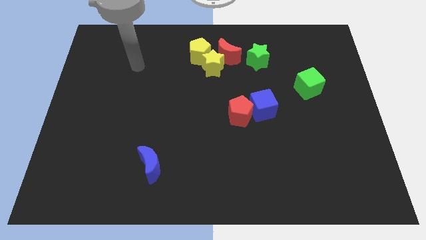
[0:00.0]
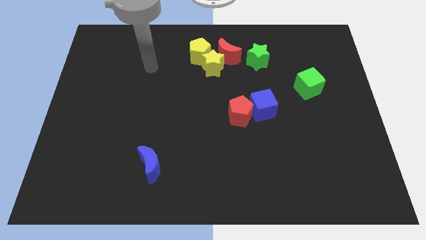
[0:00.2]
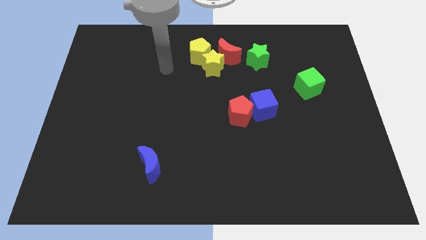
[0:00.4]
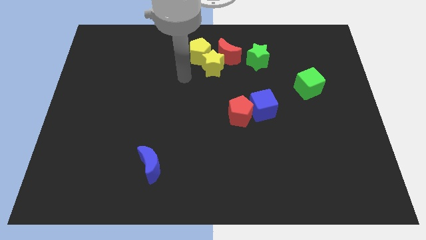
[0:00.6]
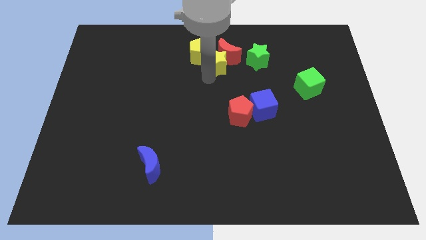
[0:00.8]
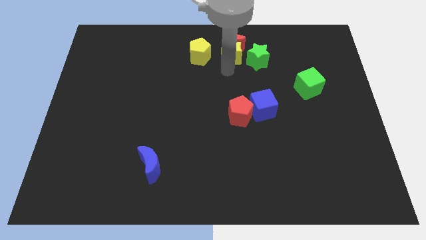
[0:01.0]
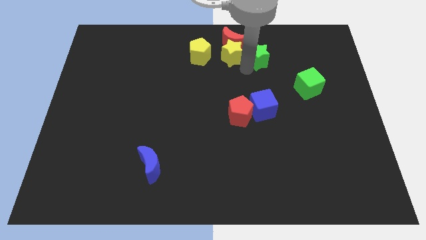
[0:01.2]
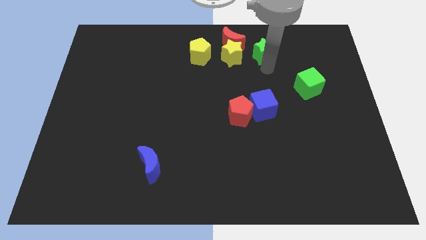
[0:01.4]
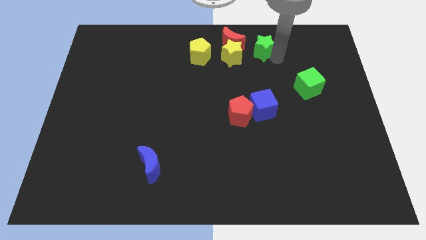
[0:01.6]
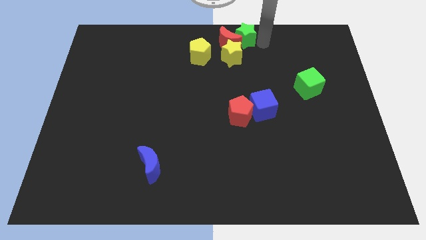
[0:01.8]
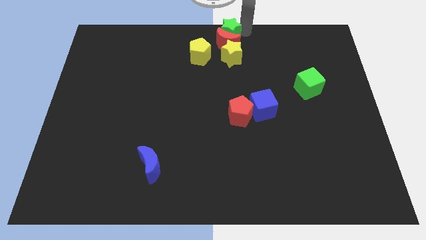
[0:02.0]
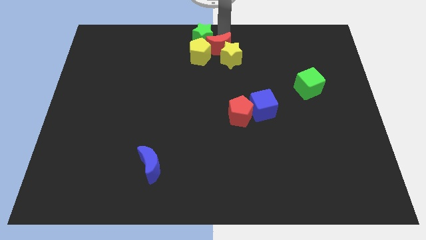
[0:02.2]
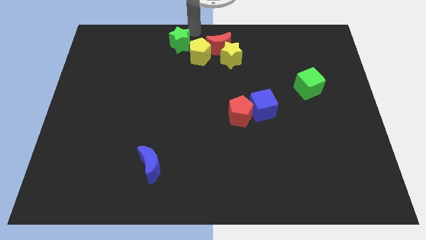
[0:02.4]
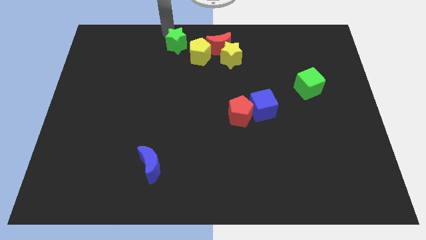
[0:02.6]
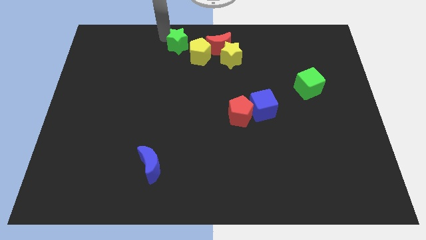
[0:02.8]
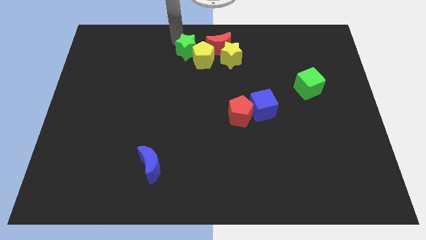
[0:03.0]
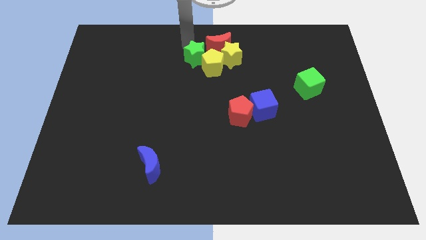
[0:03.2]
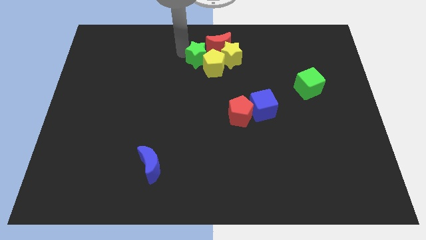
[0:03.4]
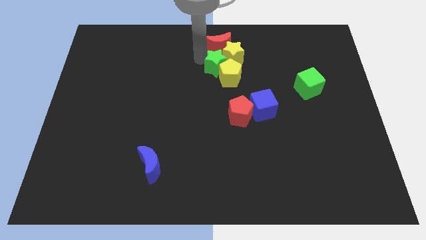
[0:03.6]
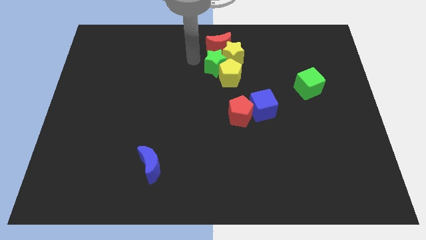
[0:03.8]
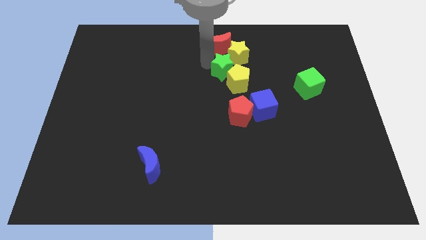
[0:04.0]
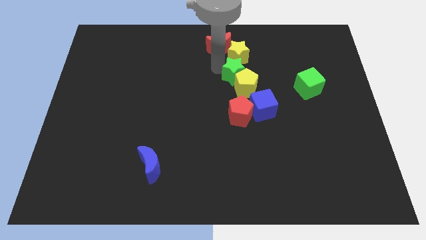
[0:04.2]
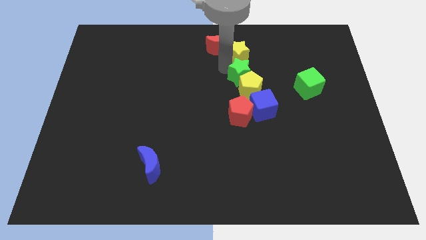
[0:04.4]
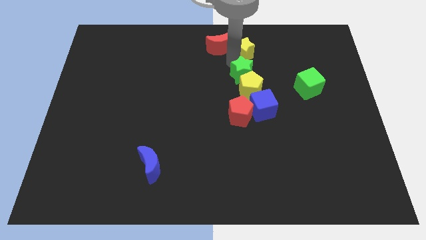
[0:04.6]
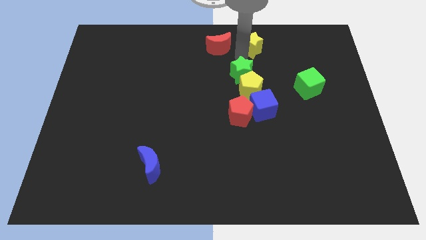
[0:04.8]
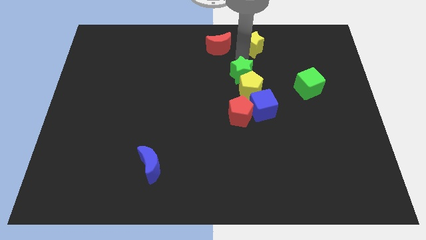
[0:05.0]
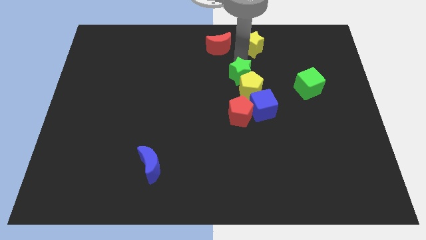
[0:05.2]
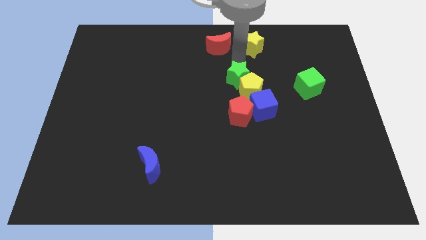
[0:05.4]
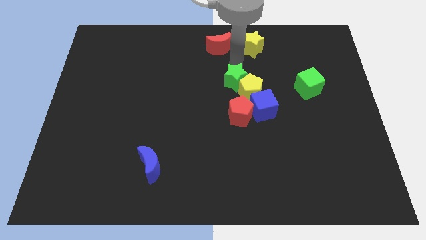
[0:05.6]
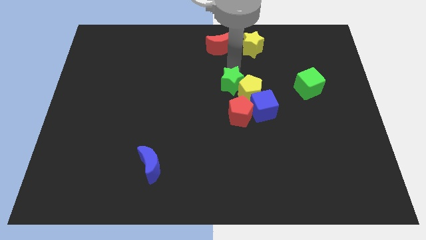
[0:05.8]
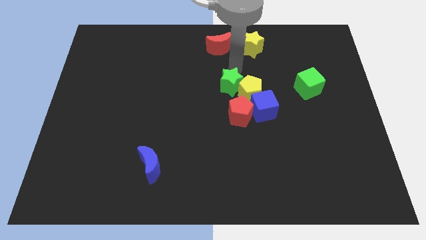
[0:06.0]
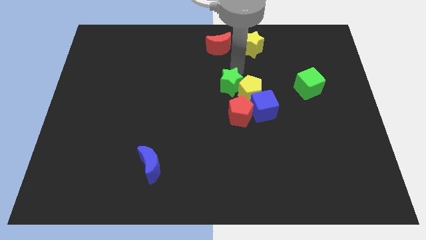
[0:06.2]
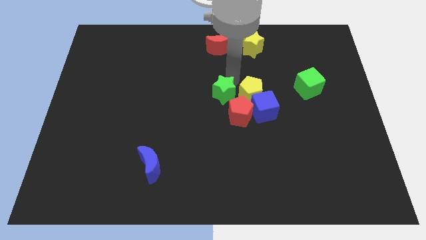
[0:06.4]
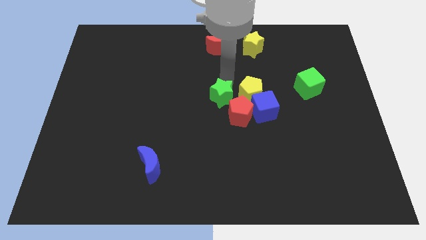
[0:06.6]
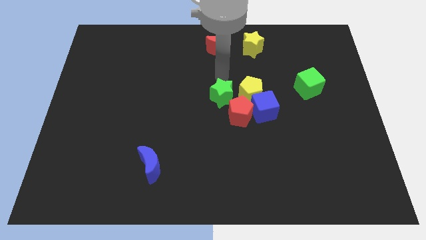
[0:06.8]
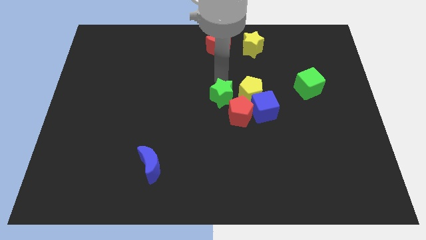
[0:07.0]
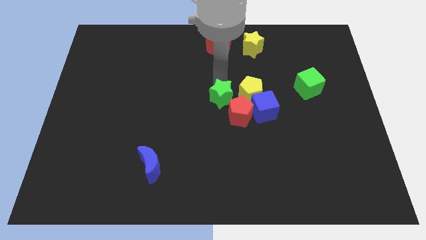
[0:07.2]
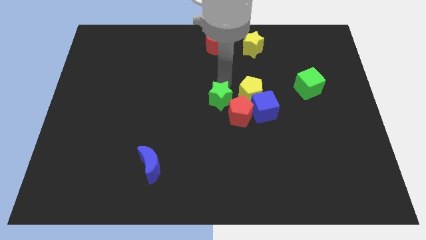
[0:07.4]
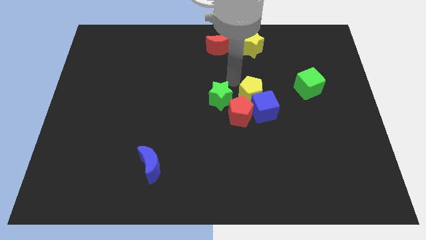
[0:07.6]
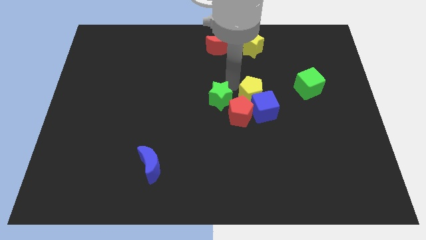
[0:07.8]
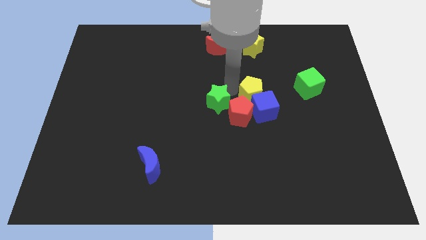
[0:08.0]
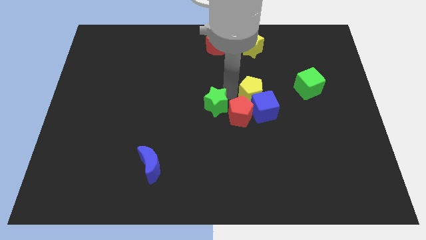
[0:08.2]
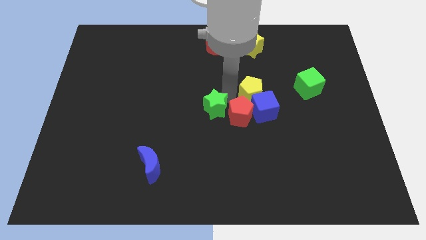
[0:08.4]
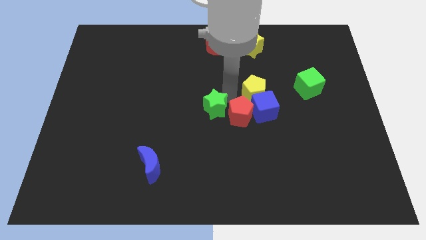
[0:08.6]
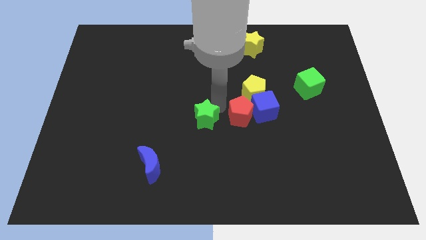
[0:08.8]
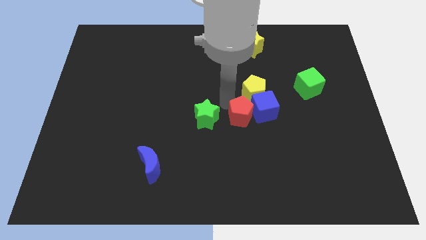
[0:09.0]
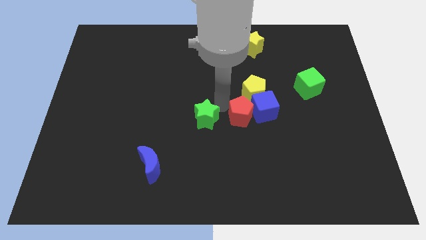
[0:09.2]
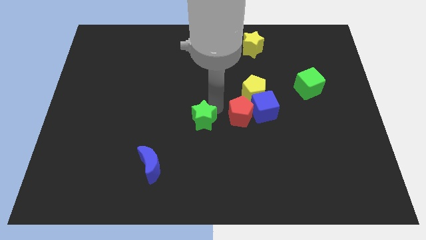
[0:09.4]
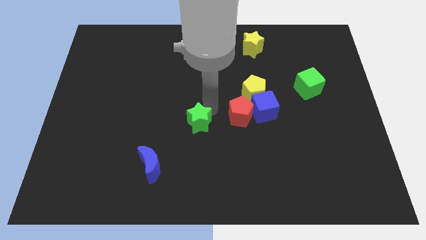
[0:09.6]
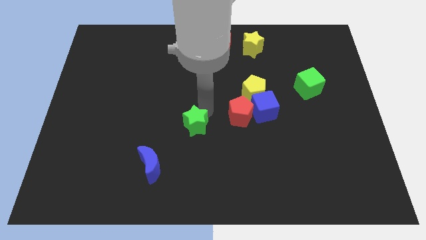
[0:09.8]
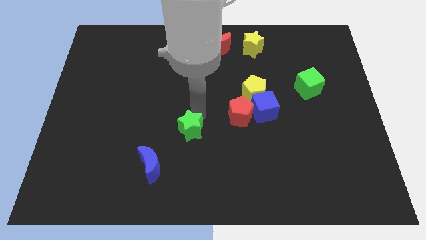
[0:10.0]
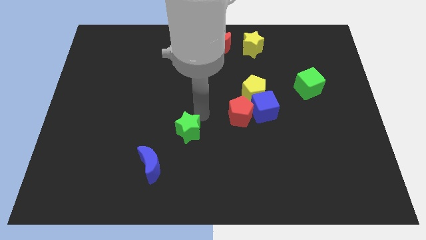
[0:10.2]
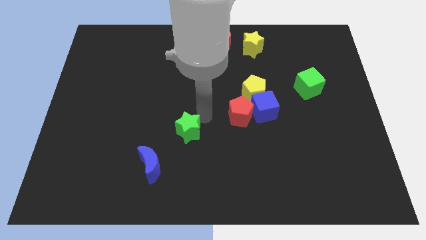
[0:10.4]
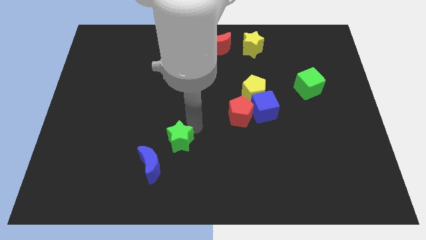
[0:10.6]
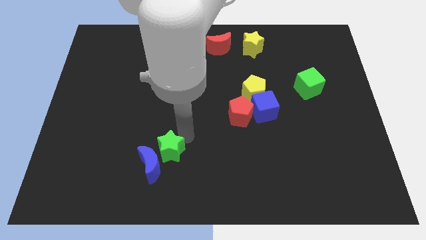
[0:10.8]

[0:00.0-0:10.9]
move the green star close to the blue moon

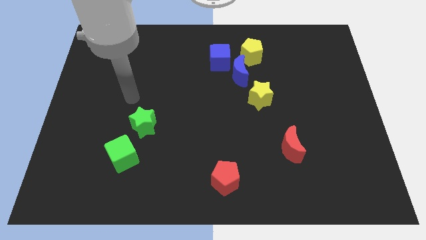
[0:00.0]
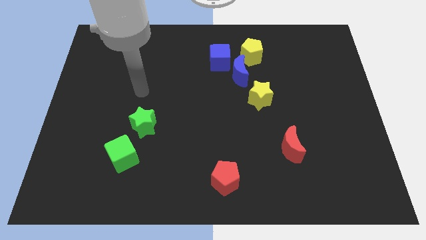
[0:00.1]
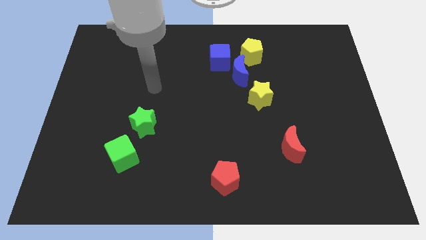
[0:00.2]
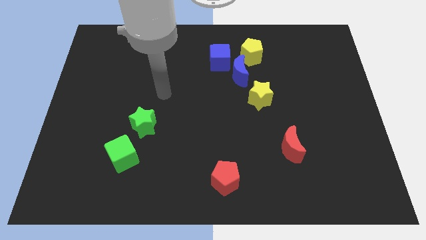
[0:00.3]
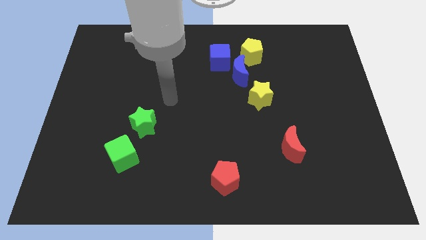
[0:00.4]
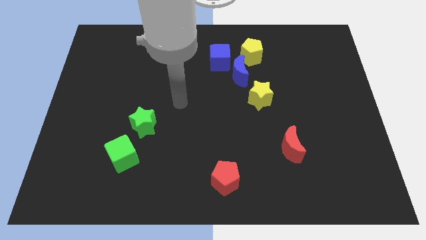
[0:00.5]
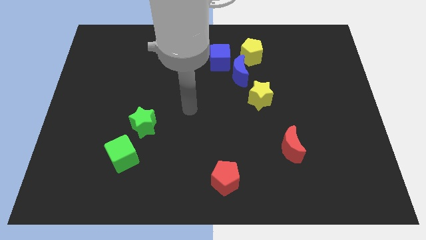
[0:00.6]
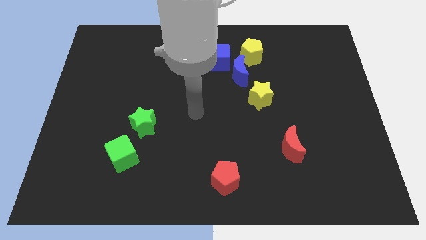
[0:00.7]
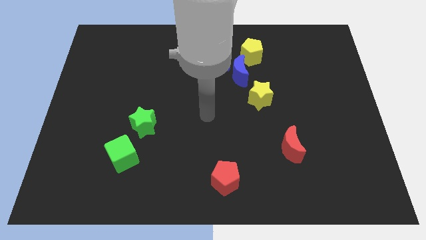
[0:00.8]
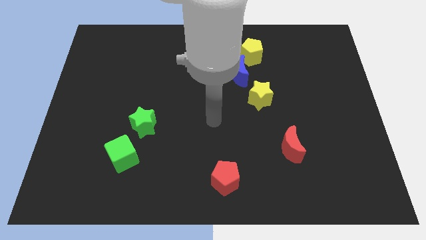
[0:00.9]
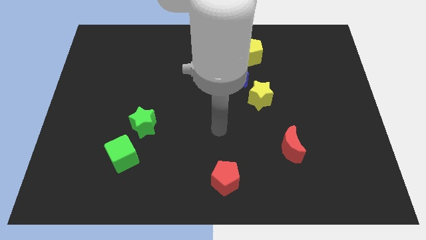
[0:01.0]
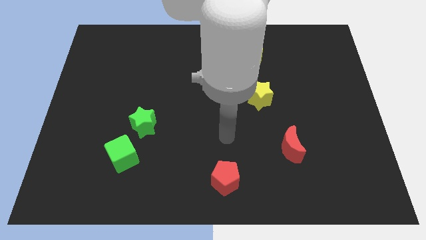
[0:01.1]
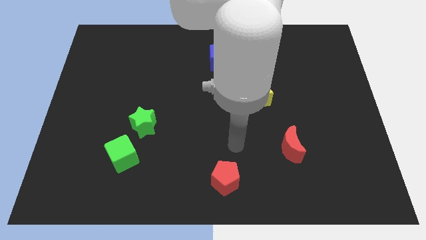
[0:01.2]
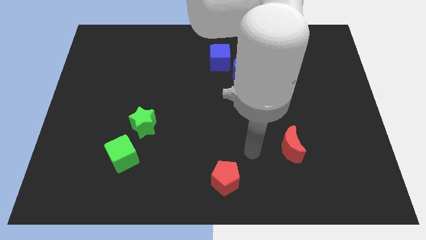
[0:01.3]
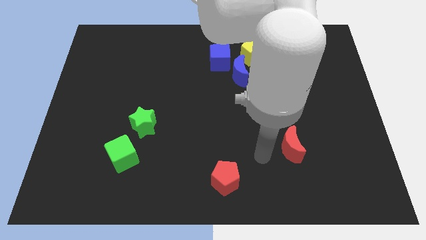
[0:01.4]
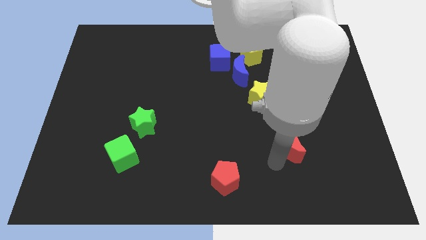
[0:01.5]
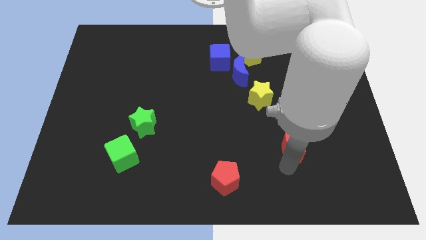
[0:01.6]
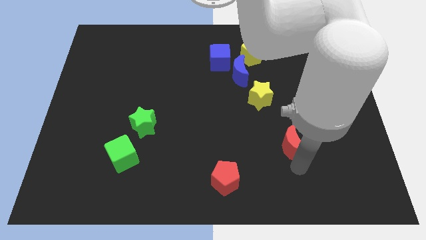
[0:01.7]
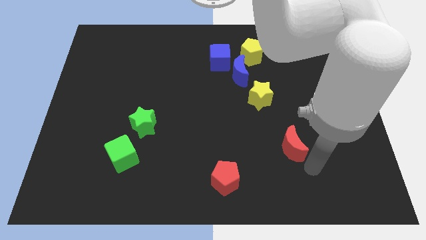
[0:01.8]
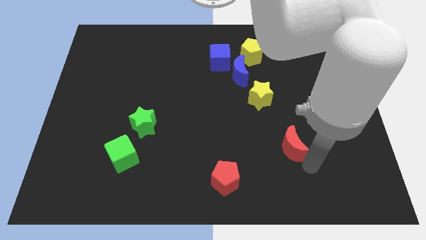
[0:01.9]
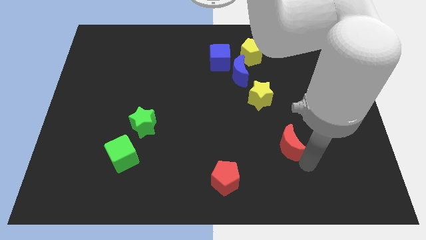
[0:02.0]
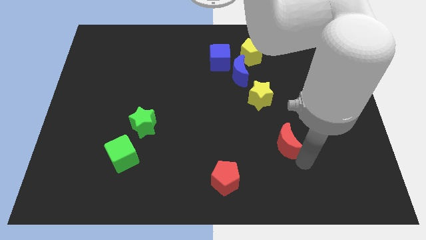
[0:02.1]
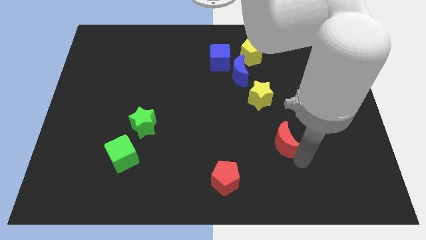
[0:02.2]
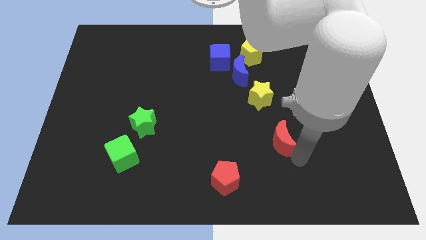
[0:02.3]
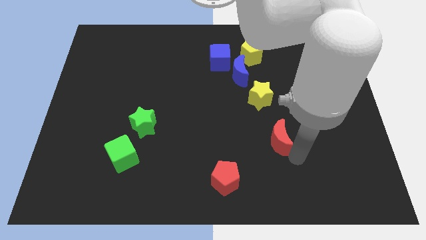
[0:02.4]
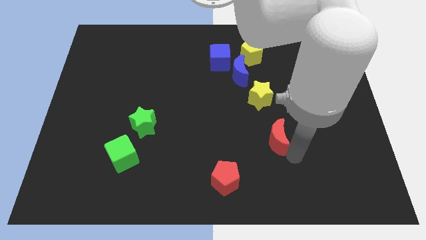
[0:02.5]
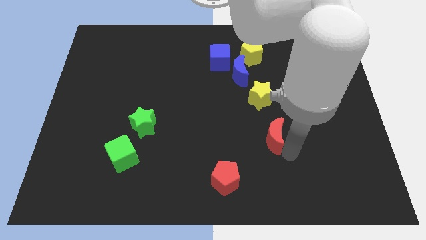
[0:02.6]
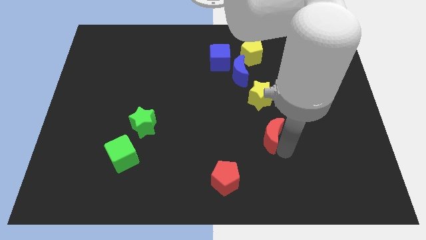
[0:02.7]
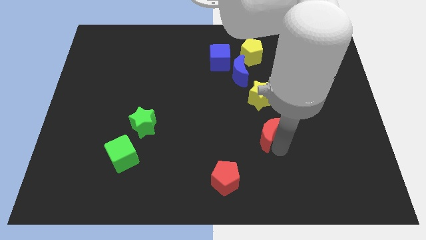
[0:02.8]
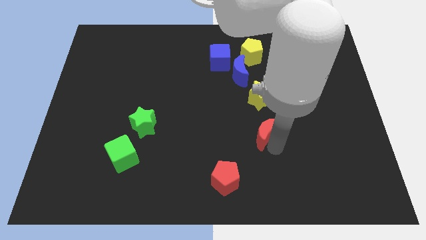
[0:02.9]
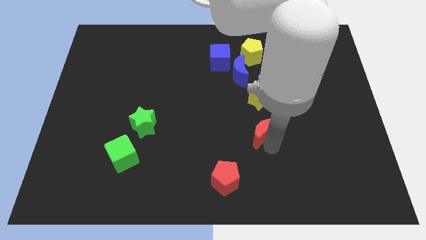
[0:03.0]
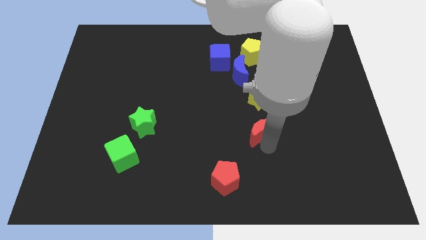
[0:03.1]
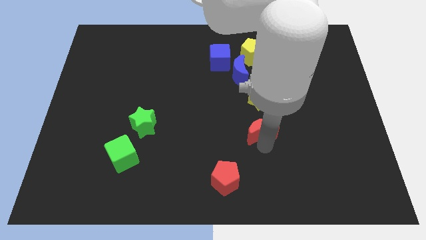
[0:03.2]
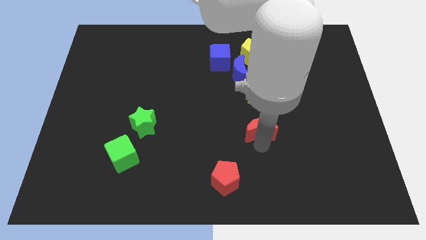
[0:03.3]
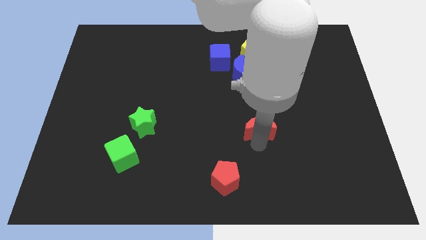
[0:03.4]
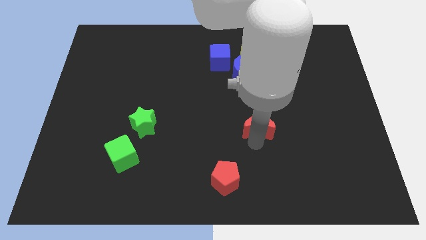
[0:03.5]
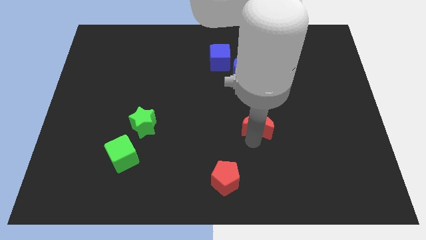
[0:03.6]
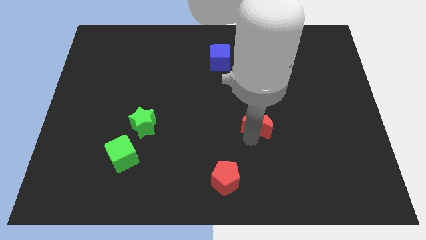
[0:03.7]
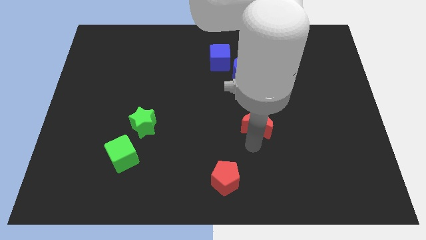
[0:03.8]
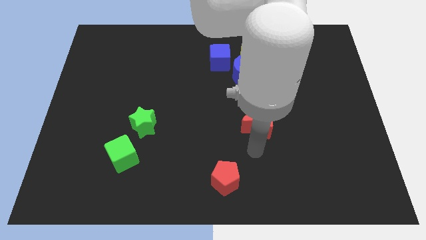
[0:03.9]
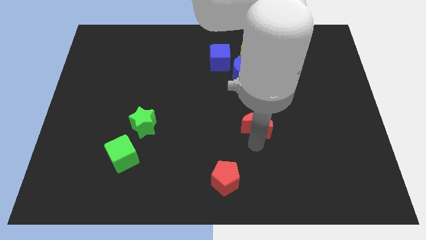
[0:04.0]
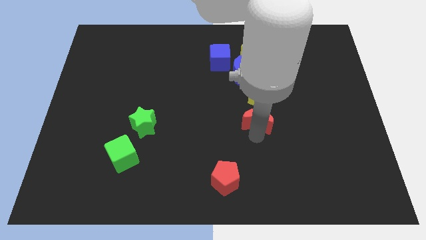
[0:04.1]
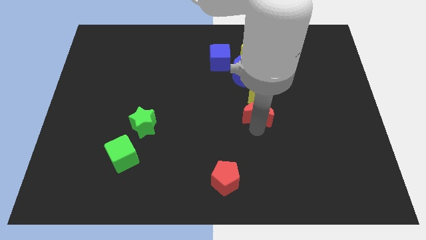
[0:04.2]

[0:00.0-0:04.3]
put the red moon towards the yellow star
